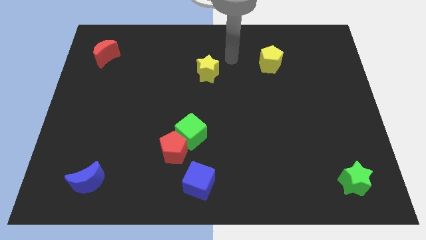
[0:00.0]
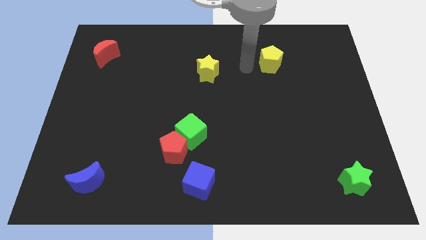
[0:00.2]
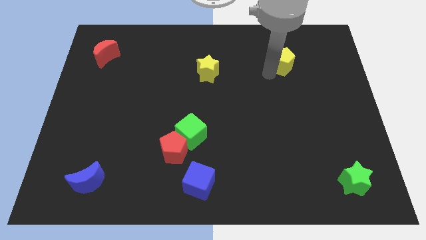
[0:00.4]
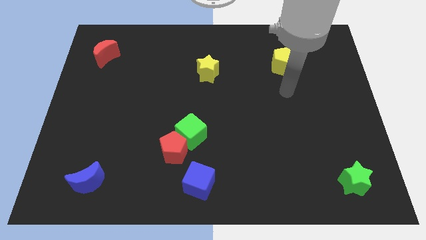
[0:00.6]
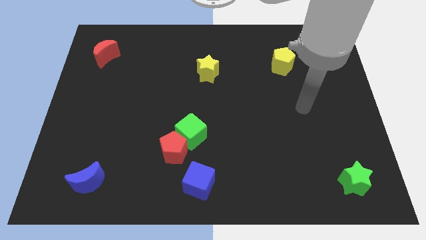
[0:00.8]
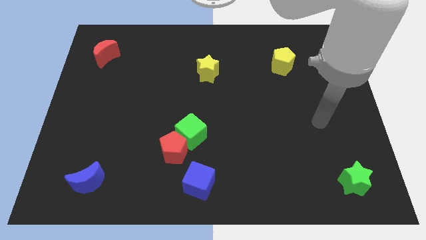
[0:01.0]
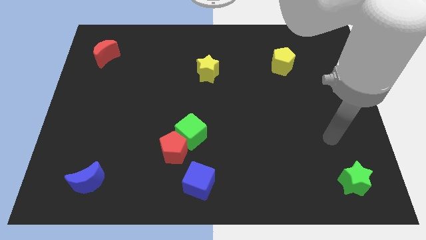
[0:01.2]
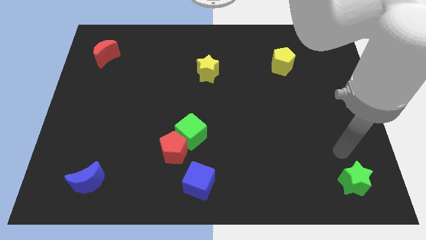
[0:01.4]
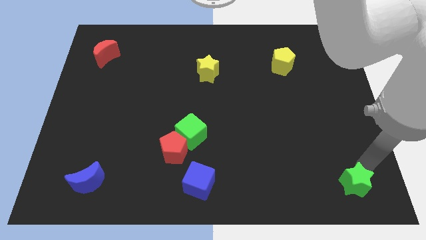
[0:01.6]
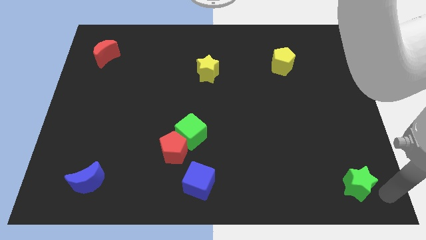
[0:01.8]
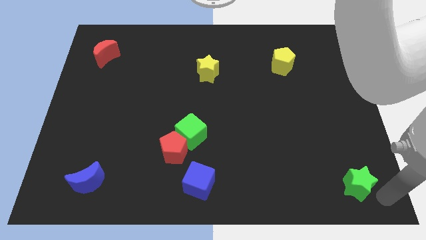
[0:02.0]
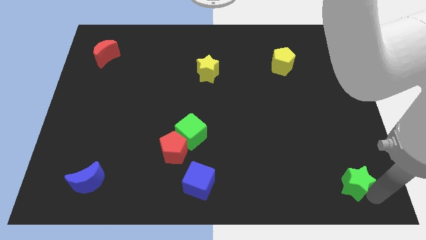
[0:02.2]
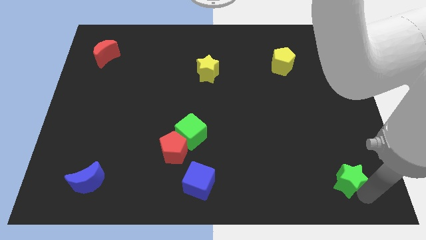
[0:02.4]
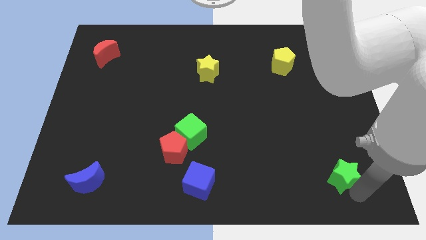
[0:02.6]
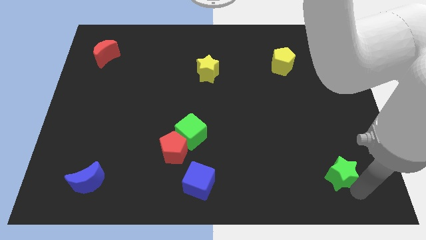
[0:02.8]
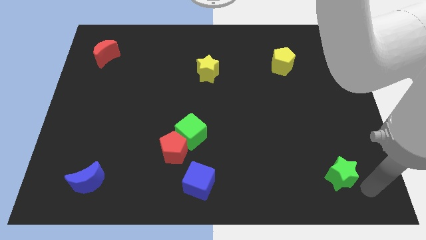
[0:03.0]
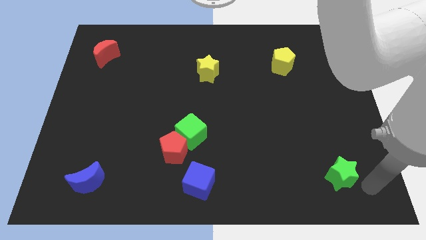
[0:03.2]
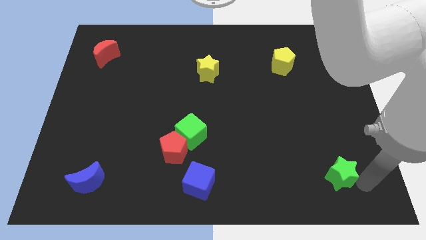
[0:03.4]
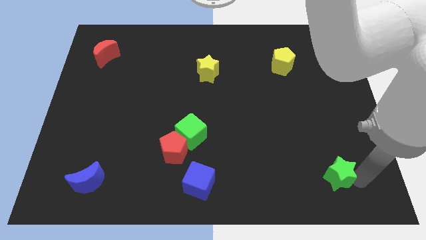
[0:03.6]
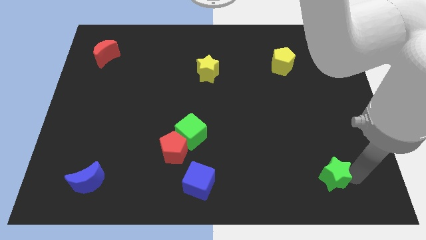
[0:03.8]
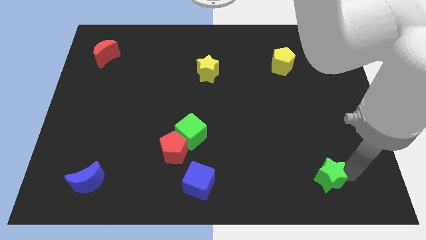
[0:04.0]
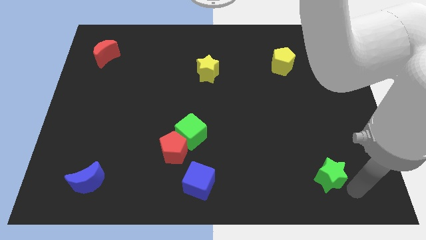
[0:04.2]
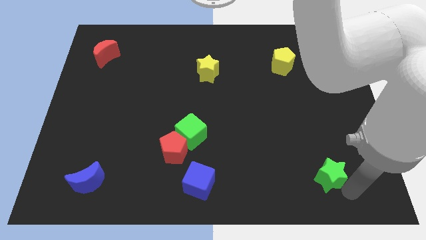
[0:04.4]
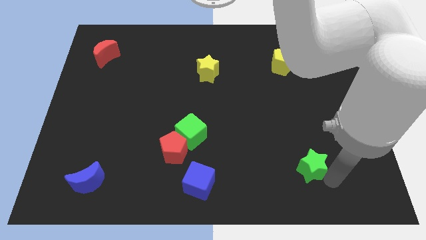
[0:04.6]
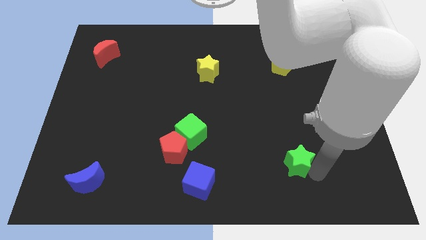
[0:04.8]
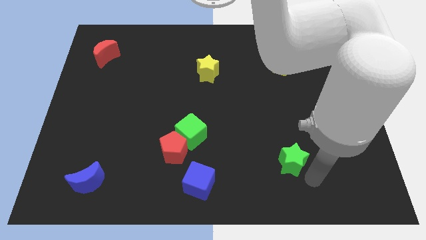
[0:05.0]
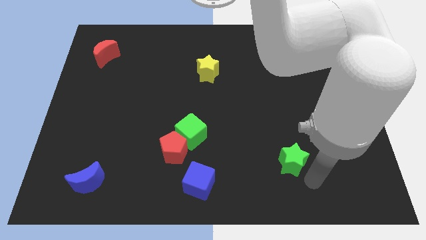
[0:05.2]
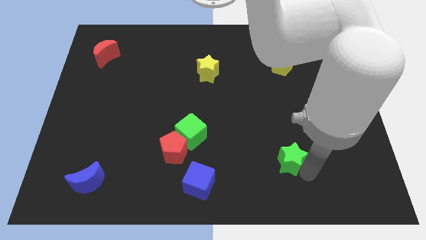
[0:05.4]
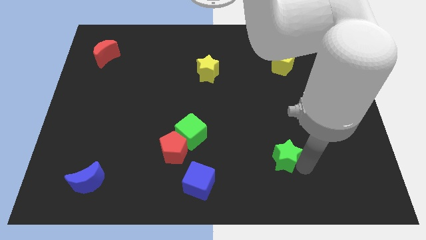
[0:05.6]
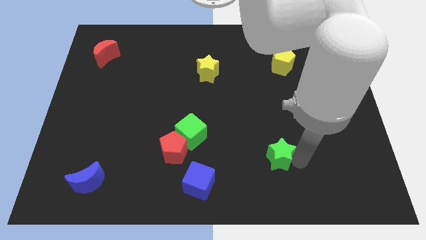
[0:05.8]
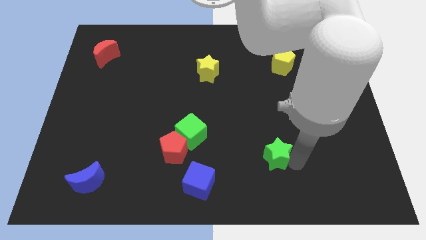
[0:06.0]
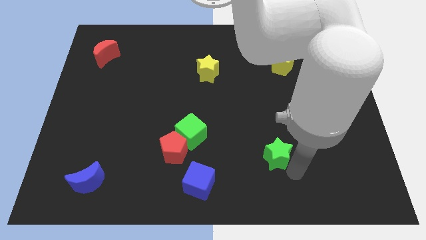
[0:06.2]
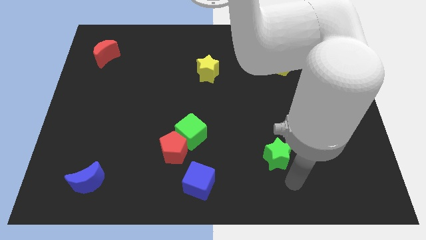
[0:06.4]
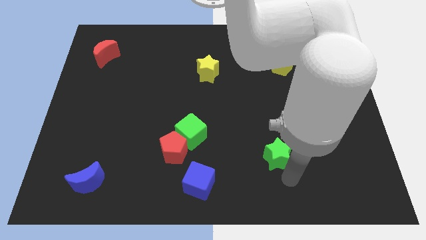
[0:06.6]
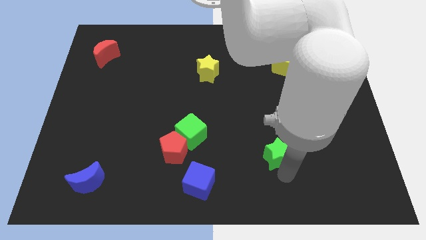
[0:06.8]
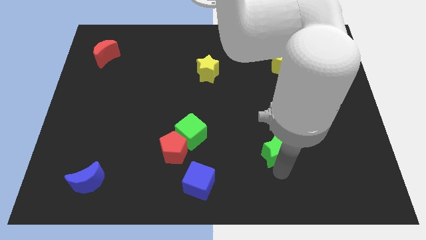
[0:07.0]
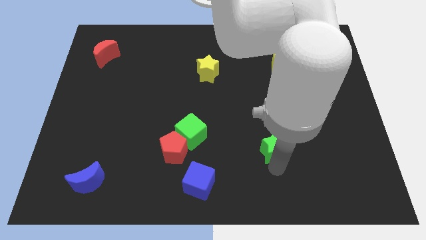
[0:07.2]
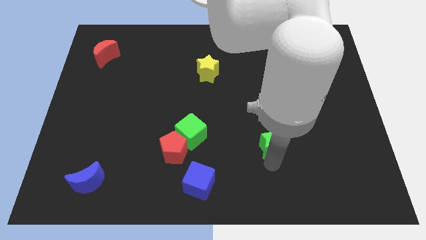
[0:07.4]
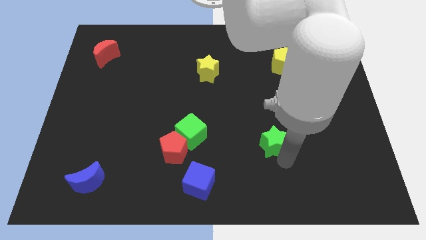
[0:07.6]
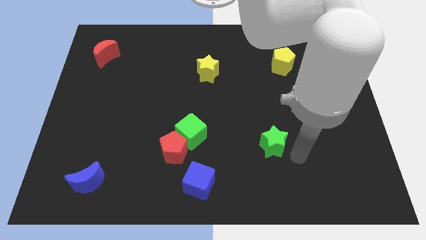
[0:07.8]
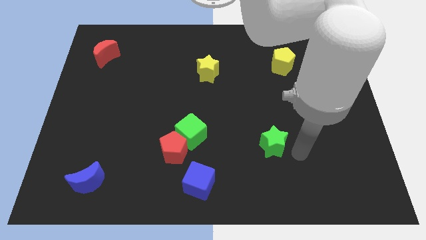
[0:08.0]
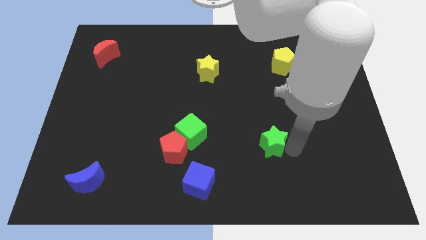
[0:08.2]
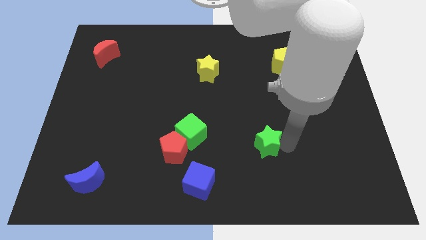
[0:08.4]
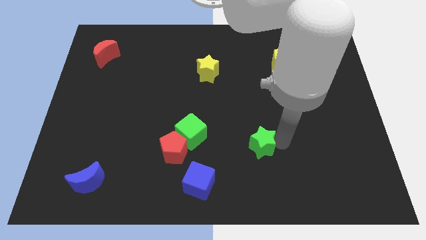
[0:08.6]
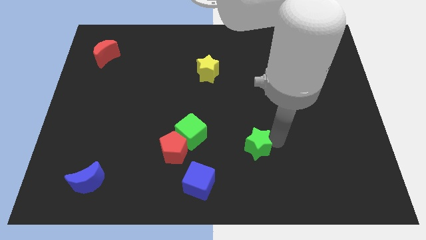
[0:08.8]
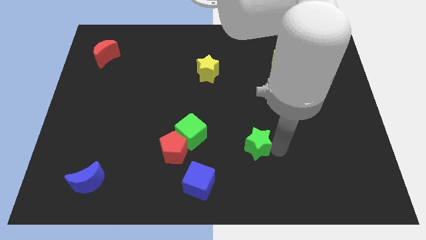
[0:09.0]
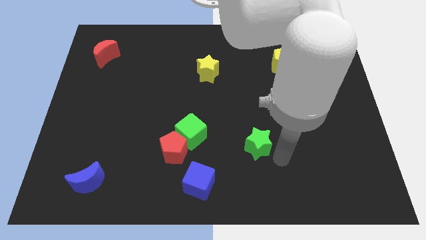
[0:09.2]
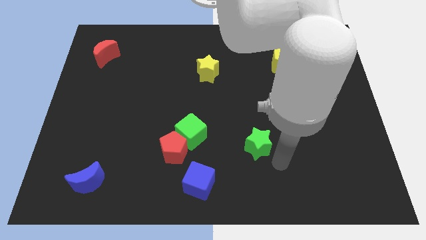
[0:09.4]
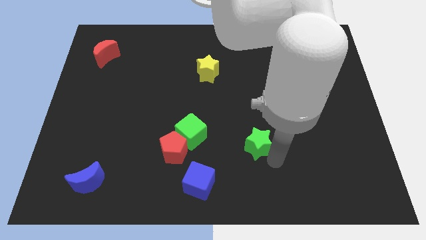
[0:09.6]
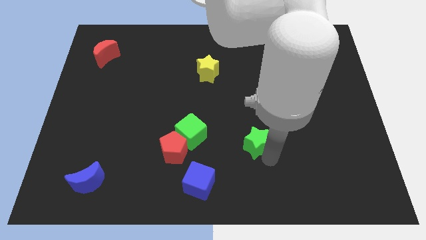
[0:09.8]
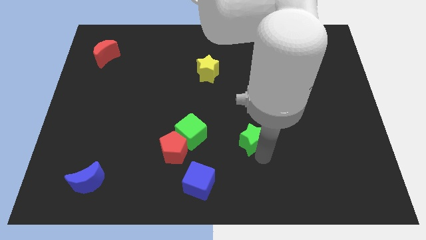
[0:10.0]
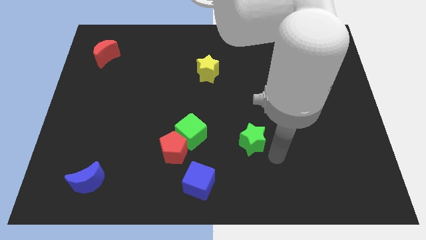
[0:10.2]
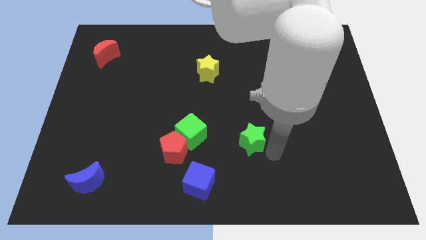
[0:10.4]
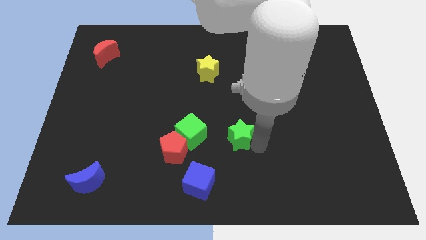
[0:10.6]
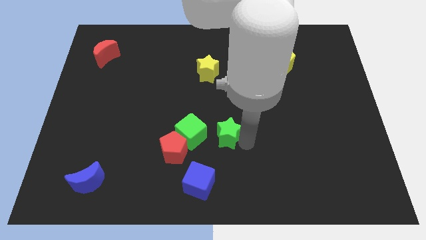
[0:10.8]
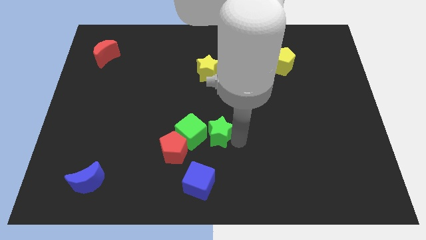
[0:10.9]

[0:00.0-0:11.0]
move the green star to the top side of the blue cube
